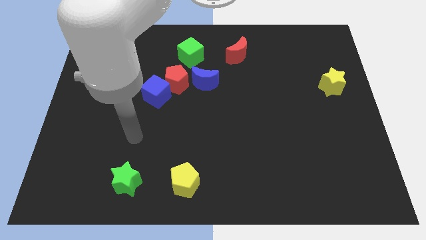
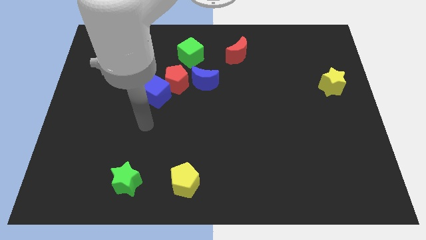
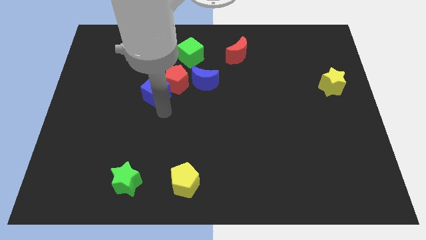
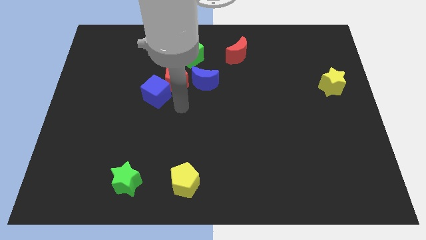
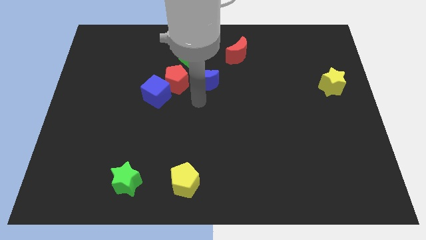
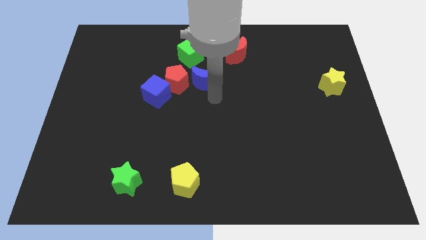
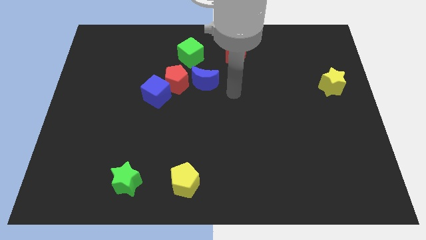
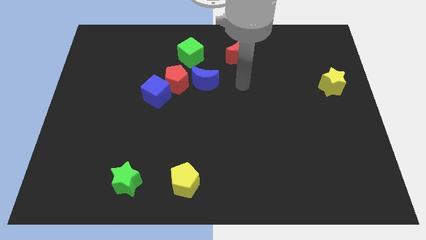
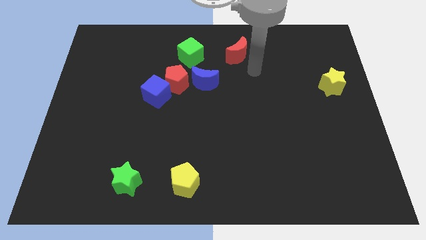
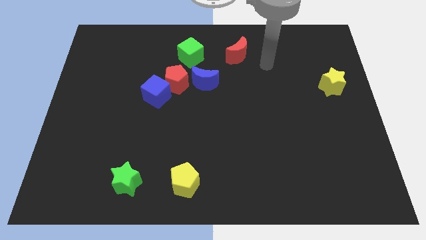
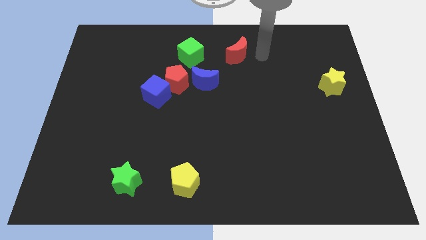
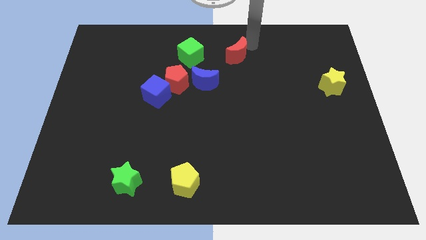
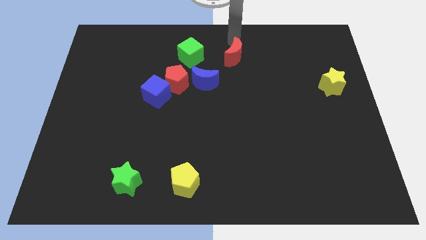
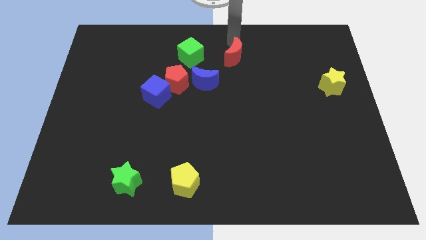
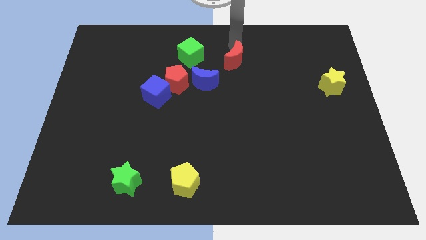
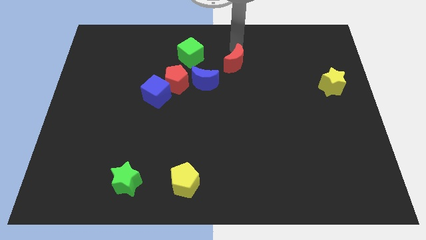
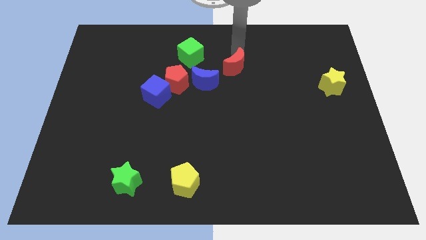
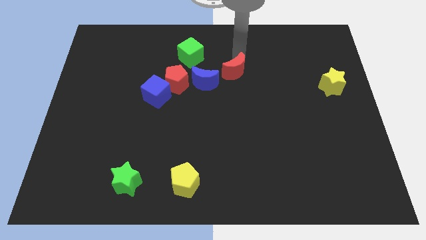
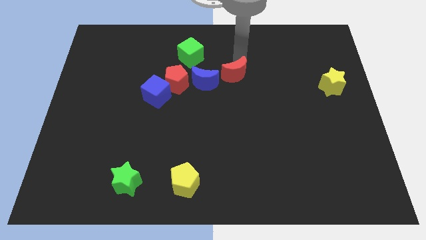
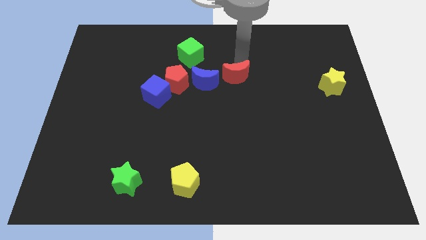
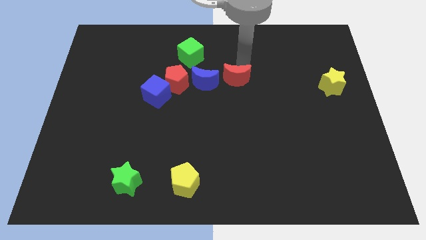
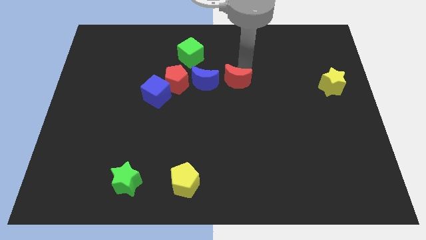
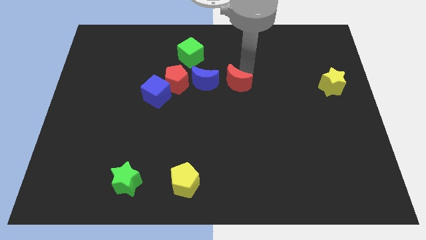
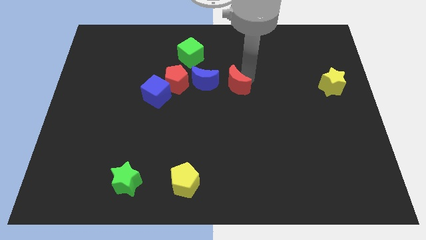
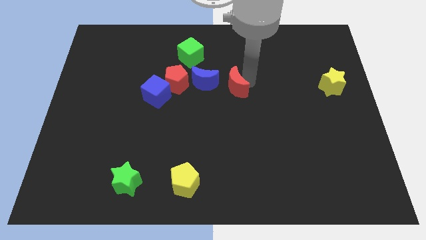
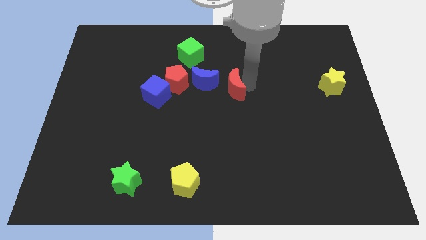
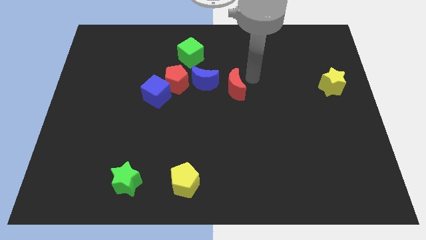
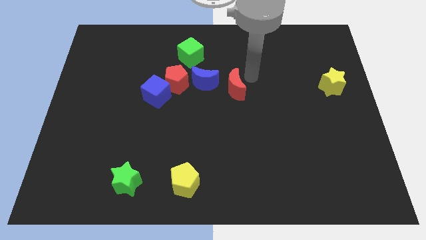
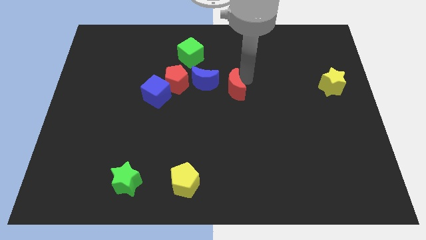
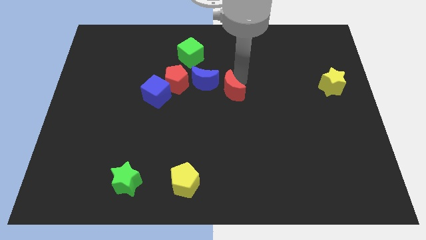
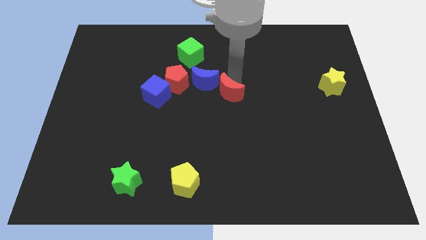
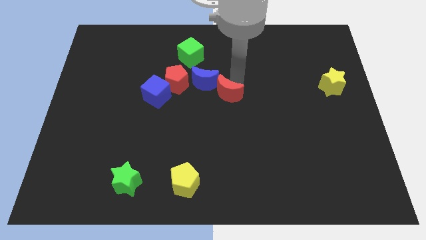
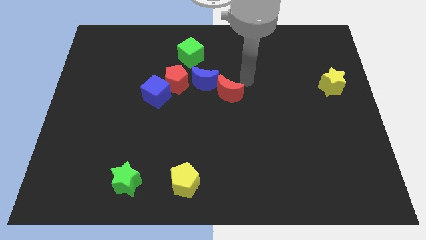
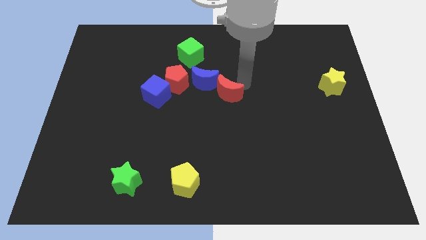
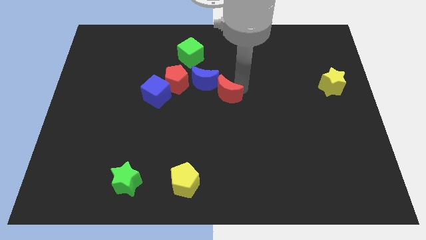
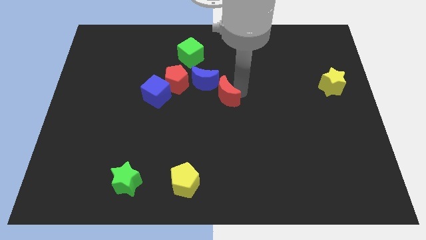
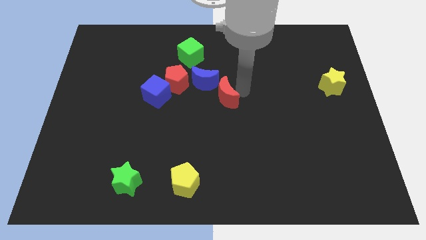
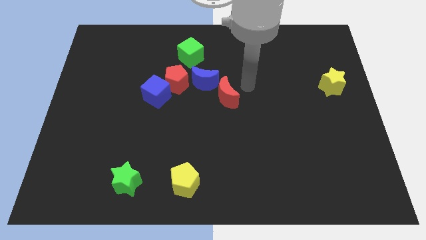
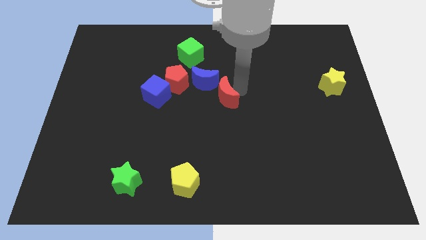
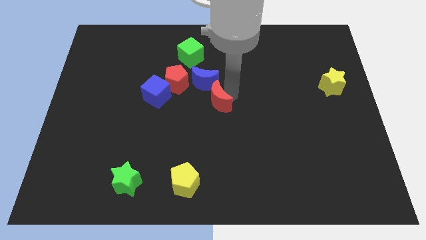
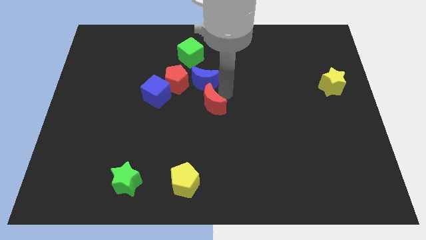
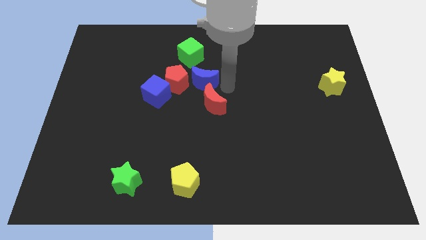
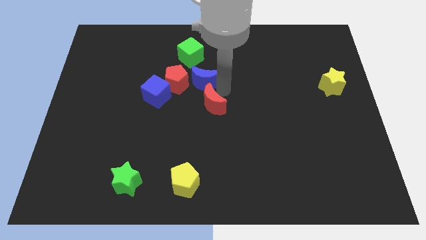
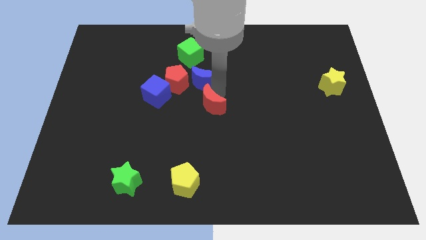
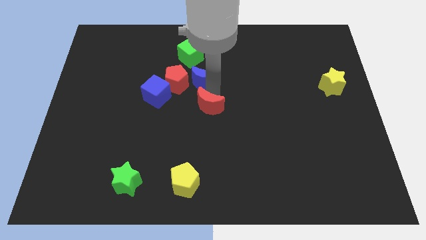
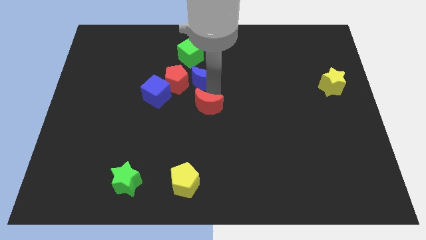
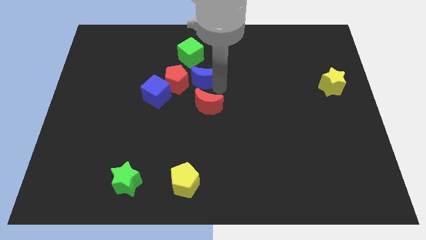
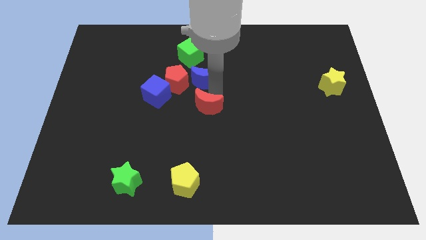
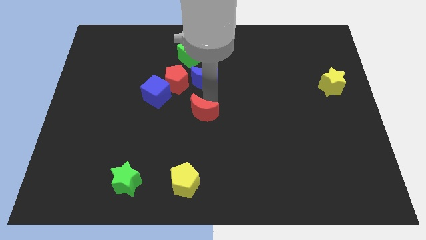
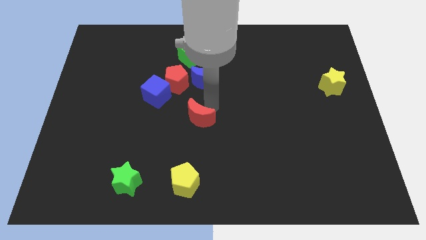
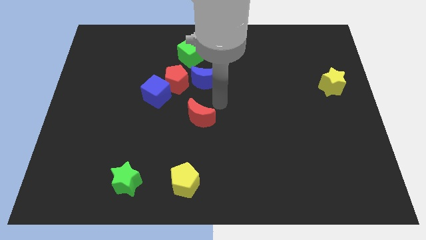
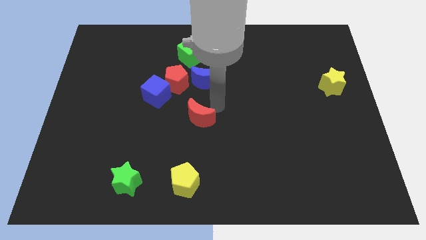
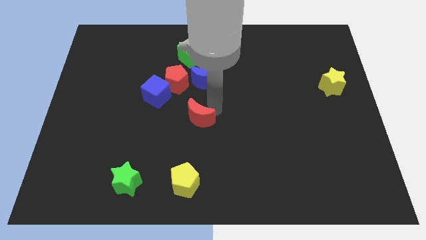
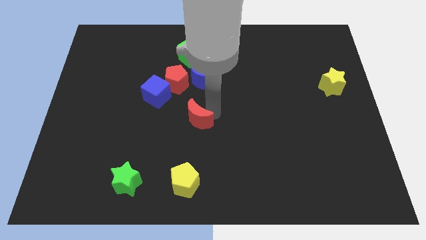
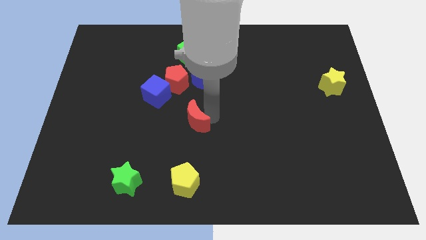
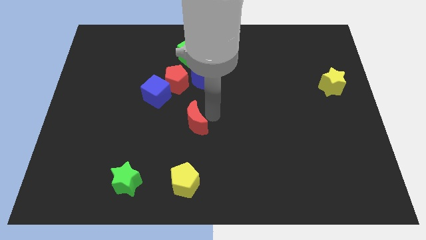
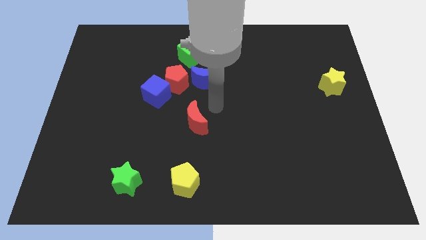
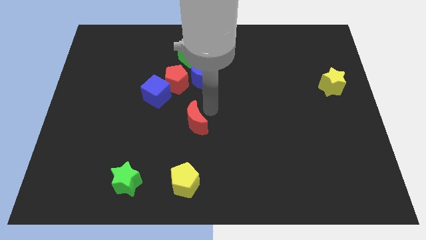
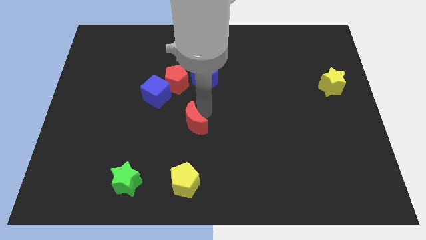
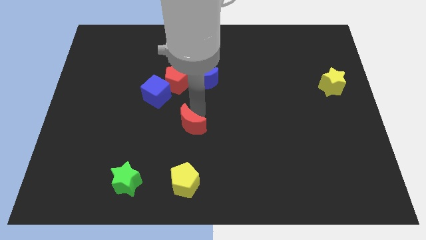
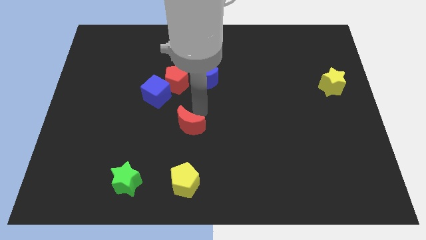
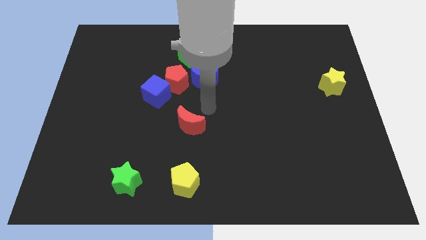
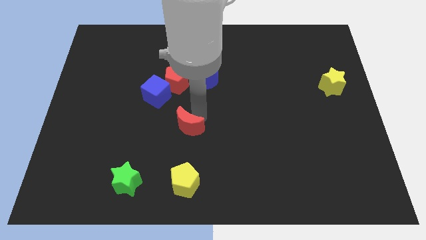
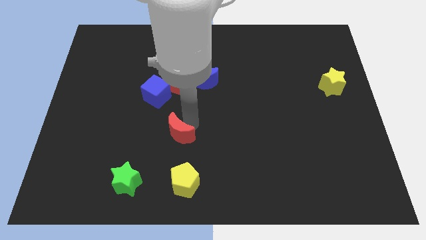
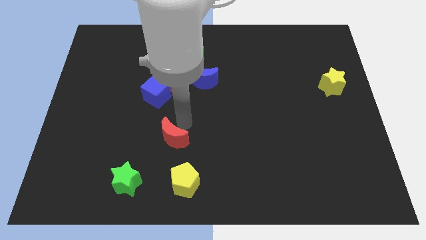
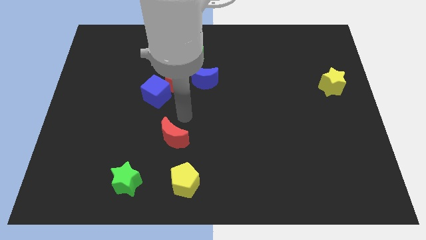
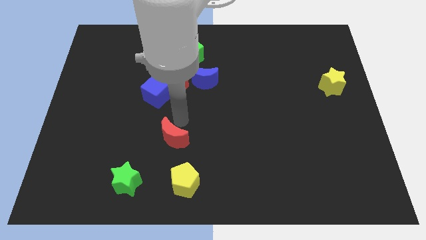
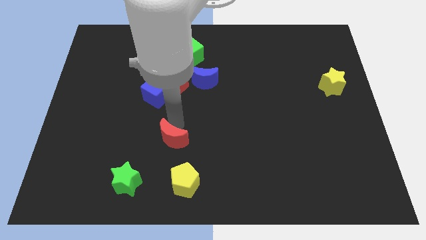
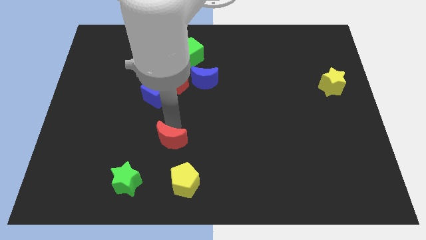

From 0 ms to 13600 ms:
put the red moon to the top left side of the yellow pentagon
